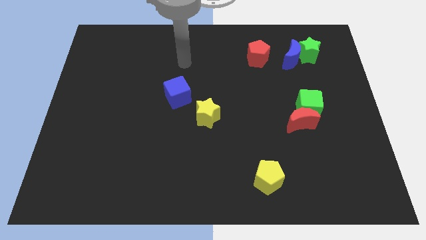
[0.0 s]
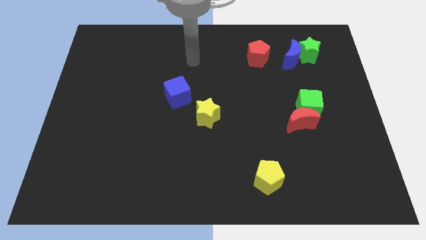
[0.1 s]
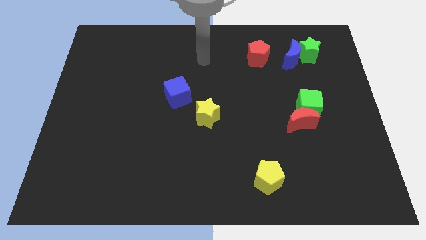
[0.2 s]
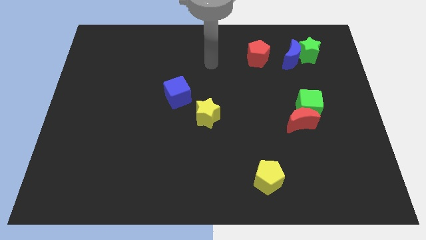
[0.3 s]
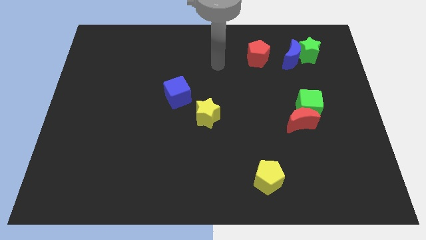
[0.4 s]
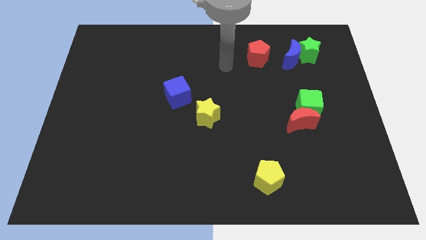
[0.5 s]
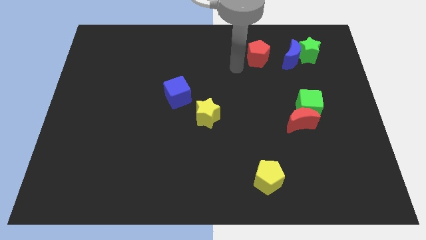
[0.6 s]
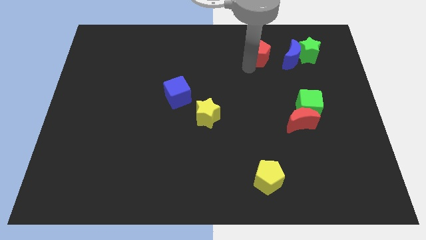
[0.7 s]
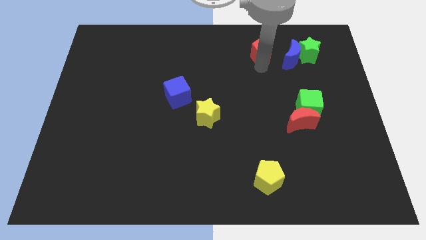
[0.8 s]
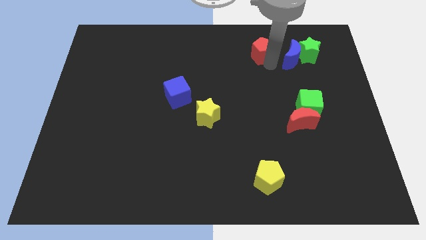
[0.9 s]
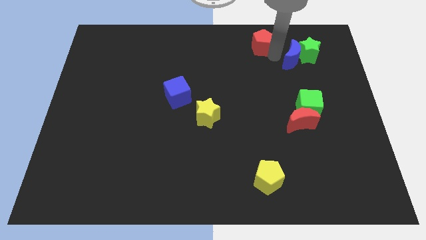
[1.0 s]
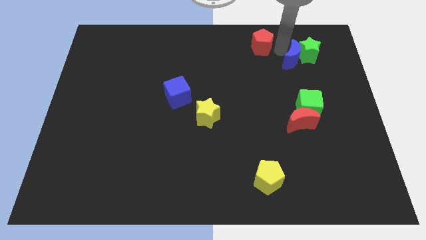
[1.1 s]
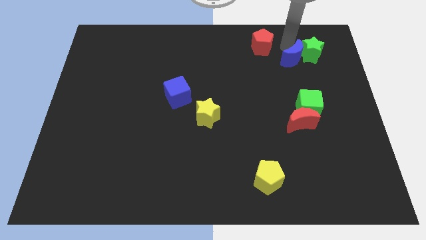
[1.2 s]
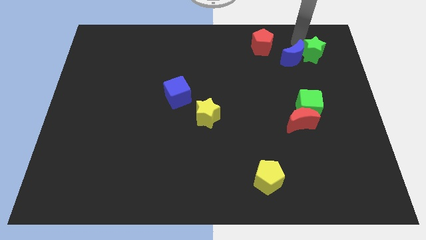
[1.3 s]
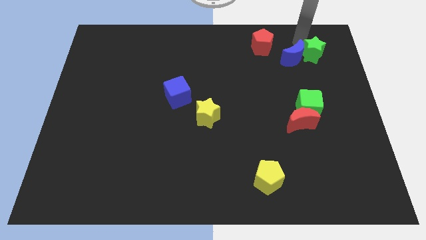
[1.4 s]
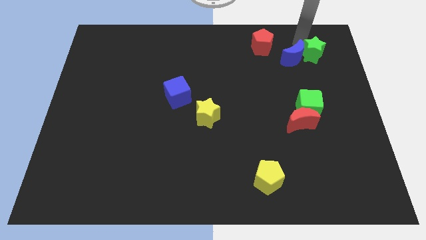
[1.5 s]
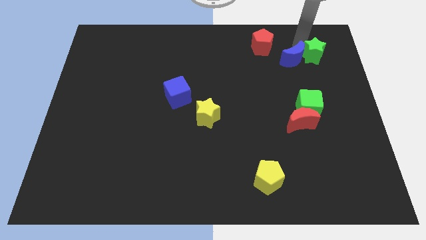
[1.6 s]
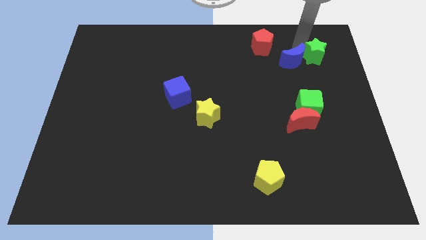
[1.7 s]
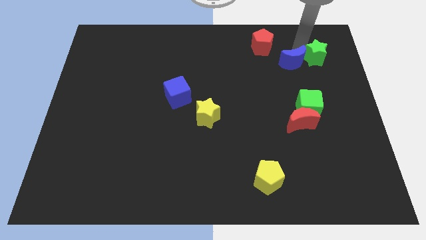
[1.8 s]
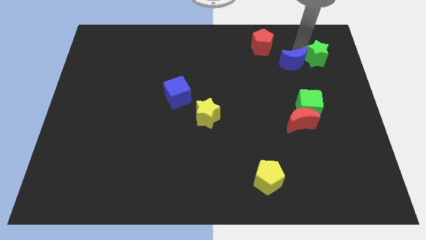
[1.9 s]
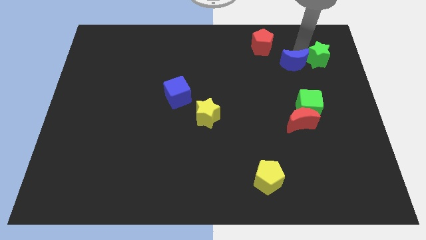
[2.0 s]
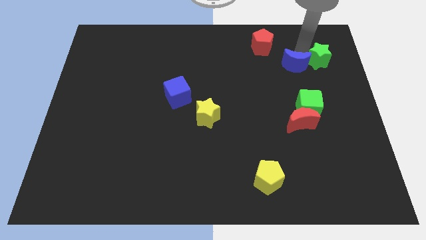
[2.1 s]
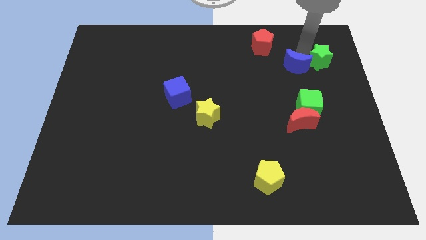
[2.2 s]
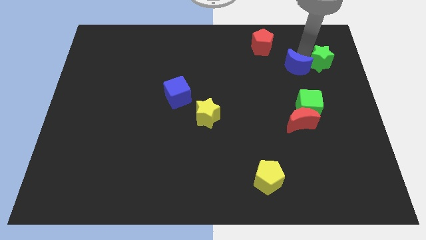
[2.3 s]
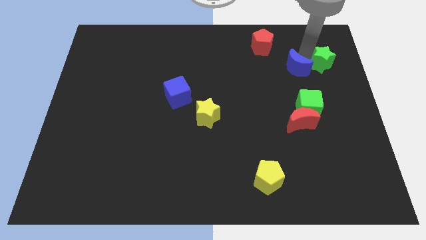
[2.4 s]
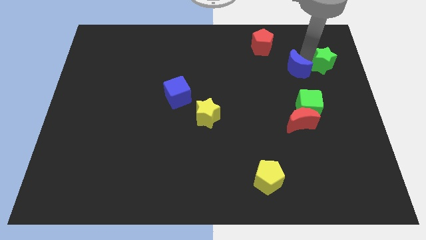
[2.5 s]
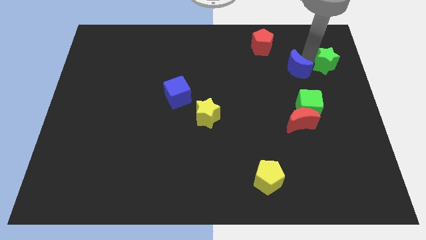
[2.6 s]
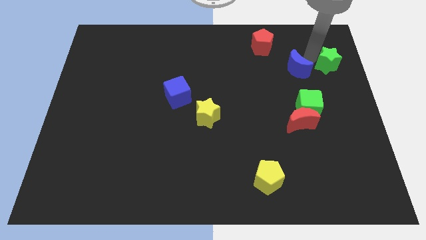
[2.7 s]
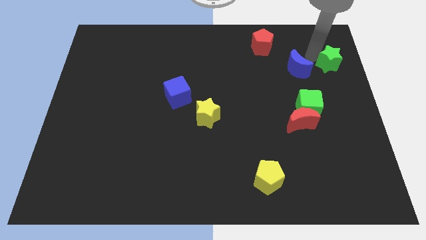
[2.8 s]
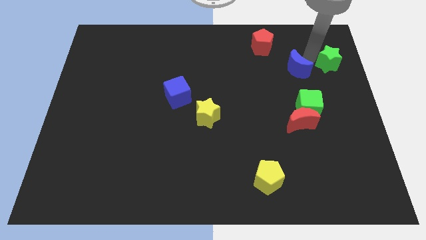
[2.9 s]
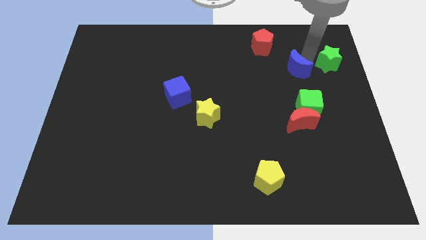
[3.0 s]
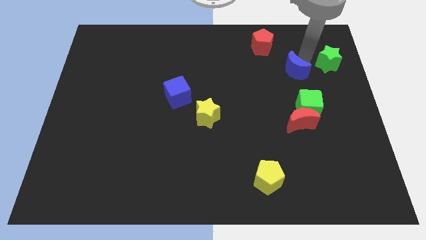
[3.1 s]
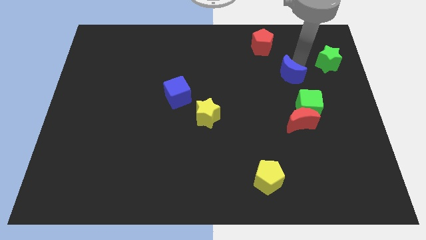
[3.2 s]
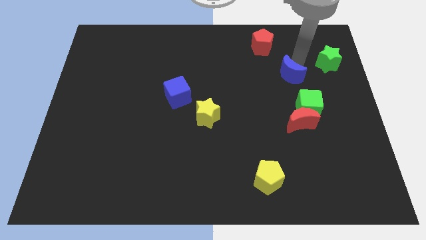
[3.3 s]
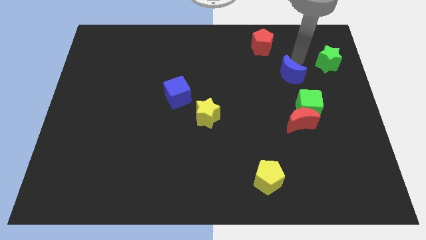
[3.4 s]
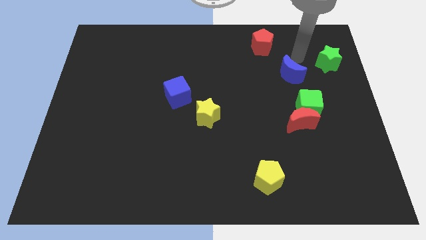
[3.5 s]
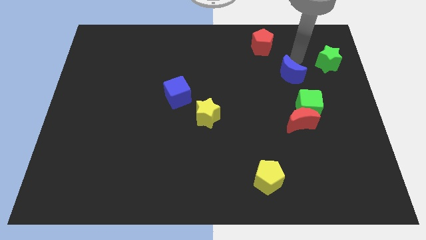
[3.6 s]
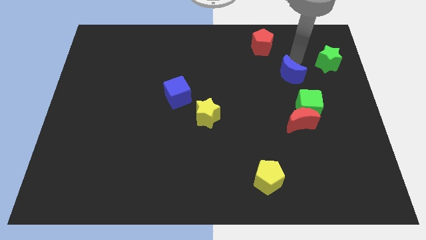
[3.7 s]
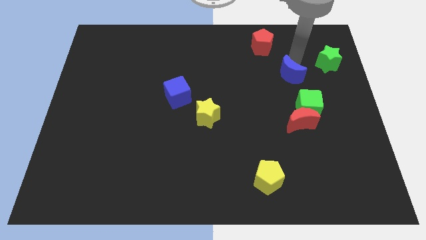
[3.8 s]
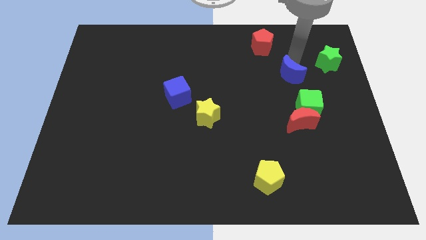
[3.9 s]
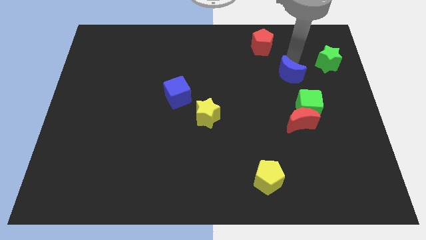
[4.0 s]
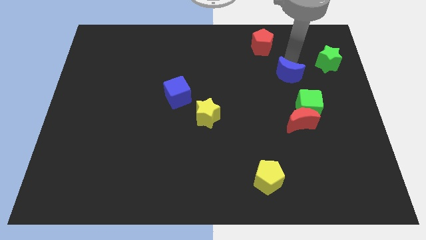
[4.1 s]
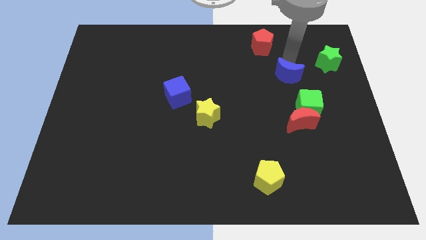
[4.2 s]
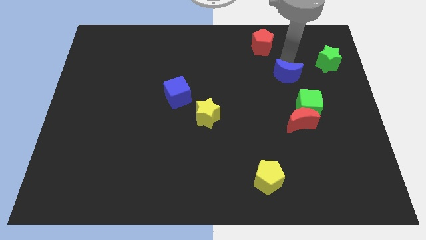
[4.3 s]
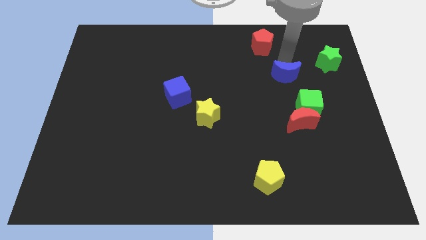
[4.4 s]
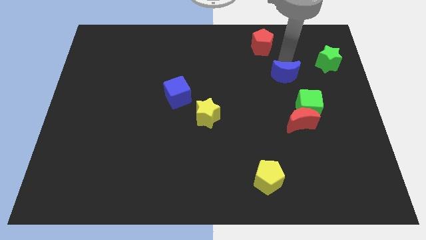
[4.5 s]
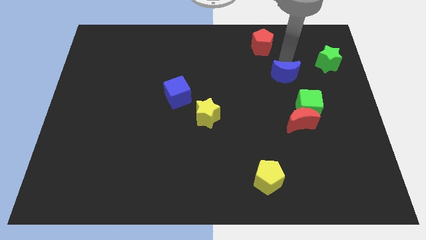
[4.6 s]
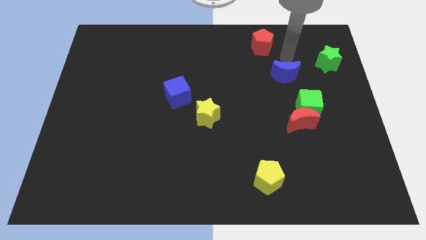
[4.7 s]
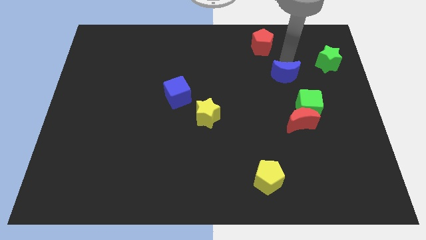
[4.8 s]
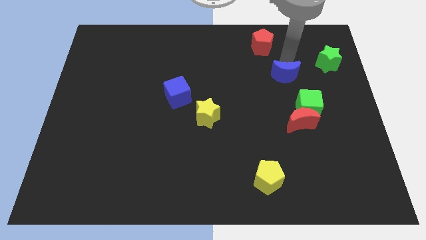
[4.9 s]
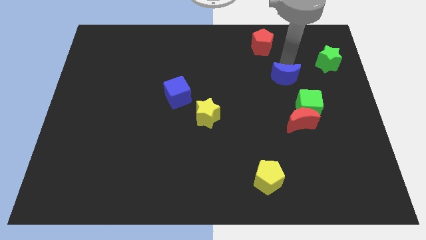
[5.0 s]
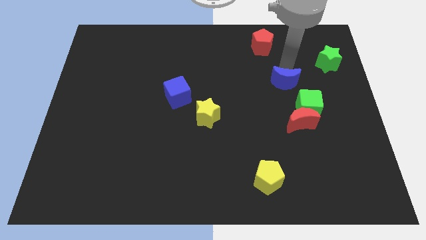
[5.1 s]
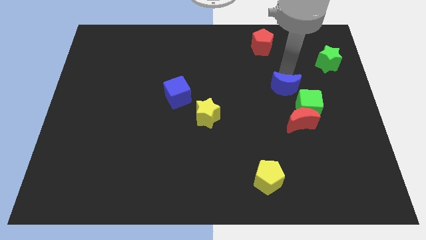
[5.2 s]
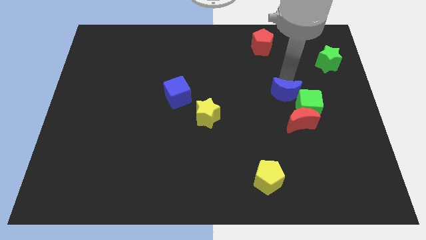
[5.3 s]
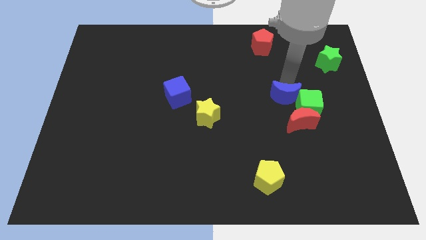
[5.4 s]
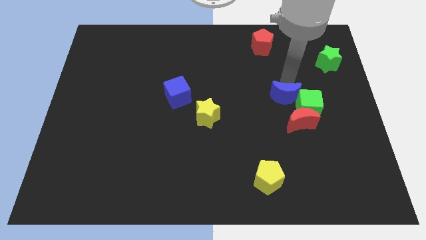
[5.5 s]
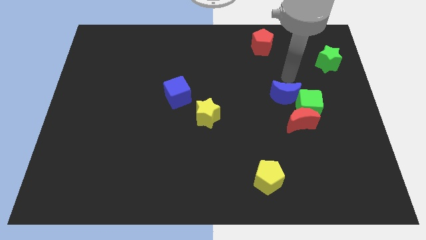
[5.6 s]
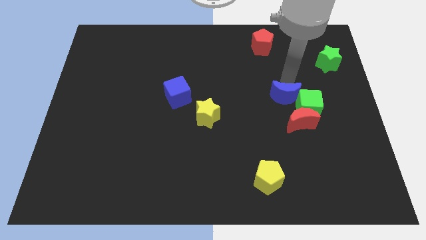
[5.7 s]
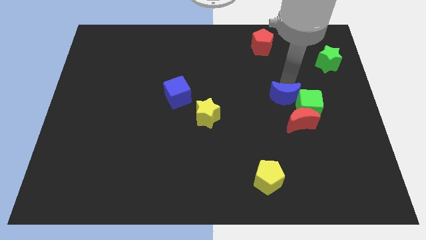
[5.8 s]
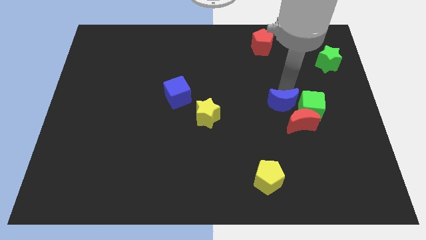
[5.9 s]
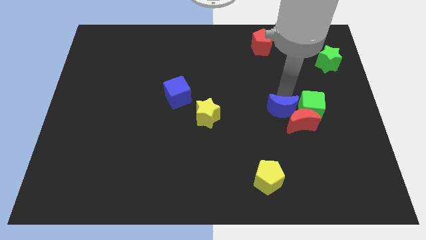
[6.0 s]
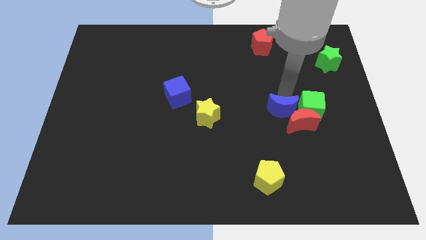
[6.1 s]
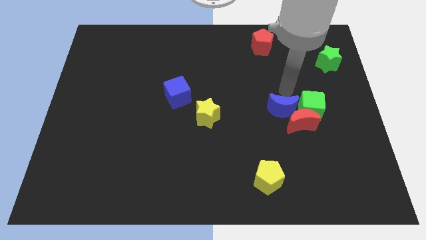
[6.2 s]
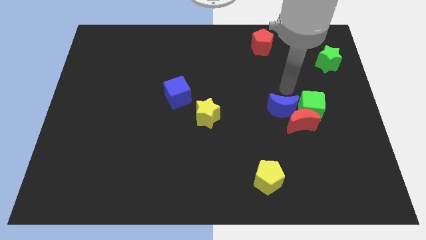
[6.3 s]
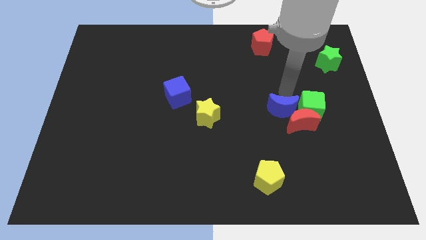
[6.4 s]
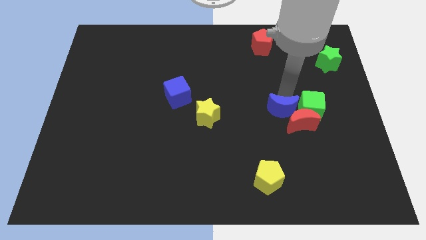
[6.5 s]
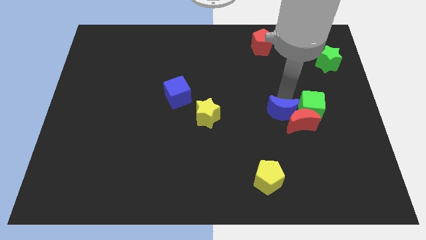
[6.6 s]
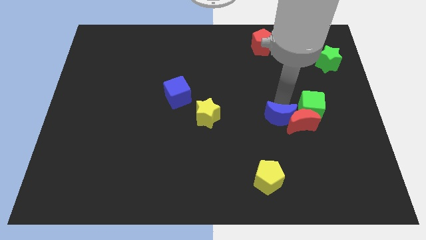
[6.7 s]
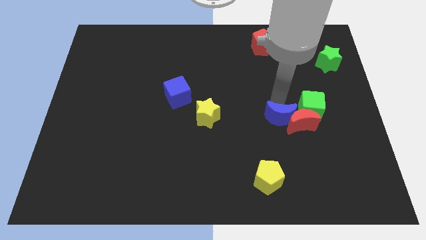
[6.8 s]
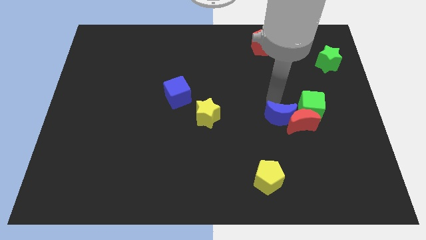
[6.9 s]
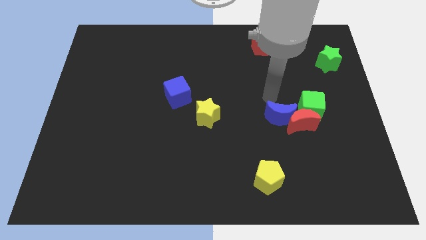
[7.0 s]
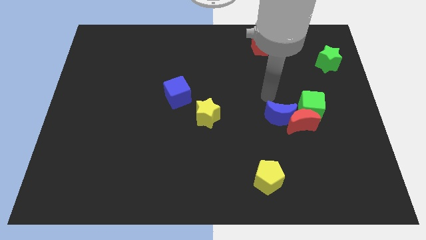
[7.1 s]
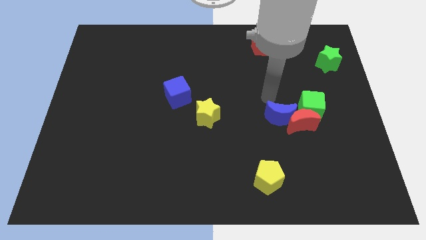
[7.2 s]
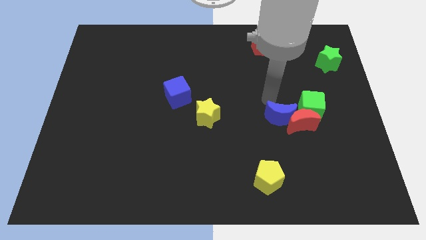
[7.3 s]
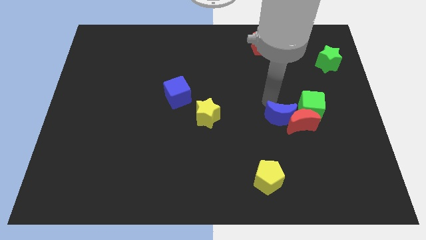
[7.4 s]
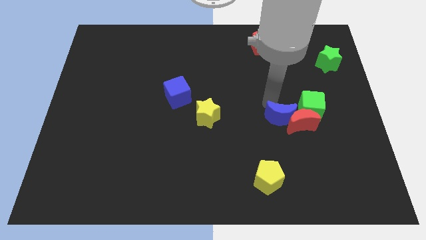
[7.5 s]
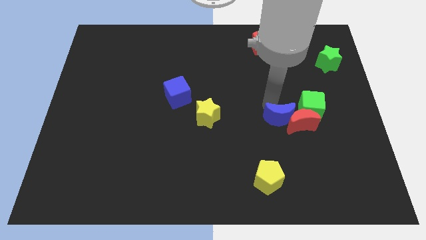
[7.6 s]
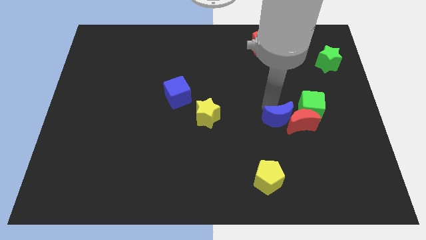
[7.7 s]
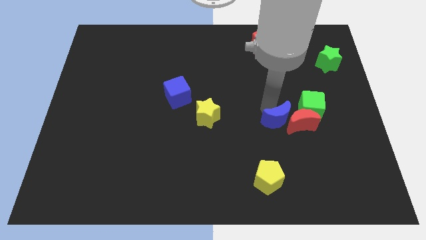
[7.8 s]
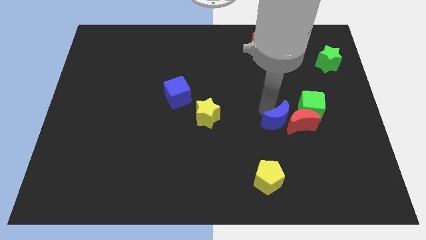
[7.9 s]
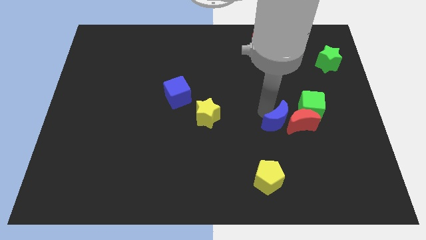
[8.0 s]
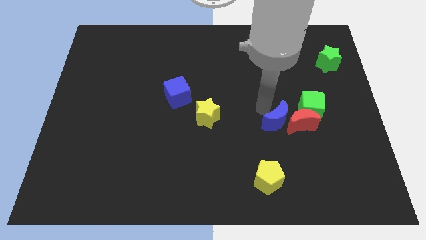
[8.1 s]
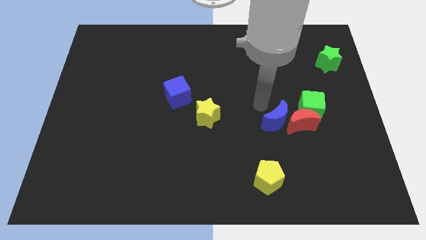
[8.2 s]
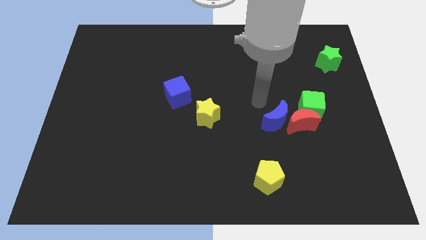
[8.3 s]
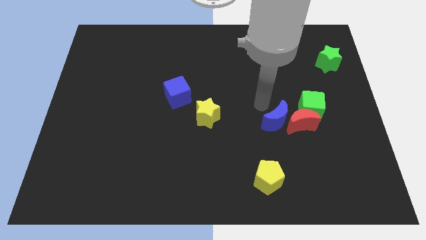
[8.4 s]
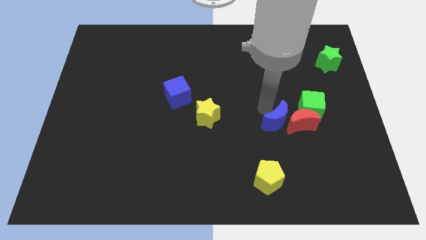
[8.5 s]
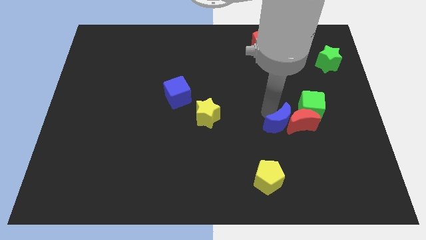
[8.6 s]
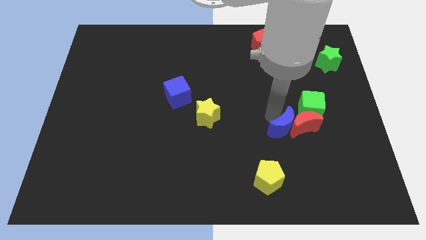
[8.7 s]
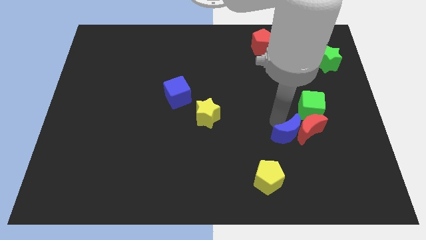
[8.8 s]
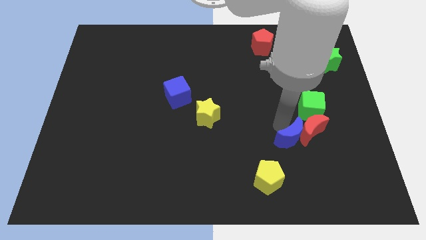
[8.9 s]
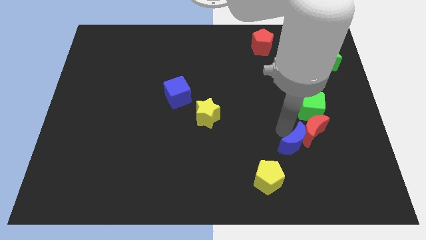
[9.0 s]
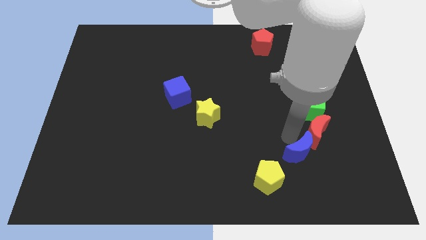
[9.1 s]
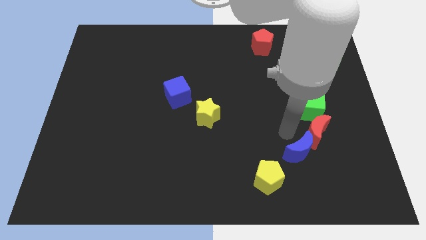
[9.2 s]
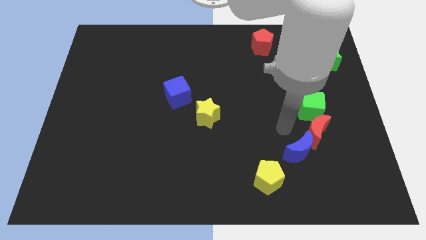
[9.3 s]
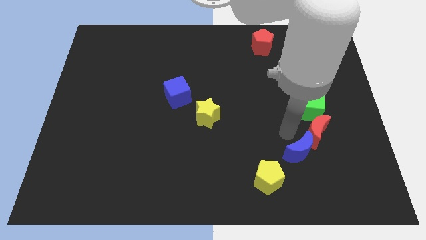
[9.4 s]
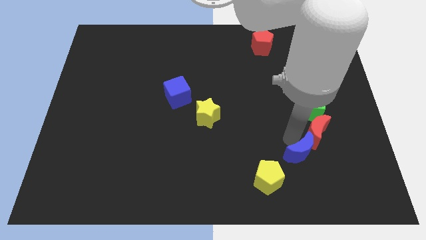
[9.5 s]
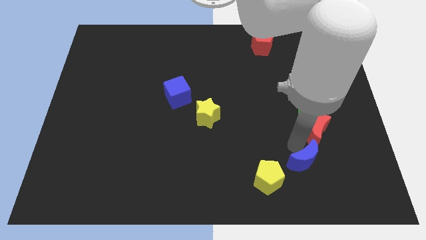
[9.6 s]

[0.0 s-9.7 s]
put the blue moon right of the yellow pentagon
